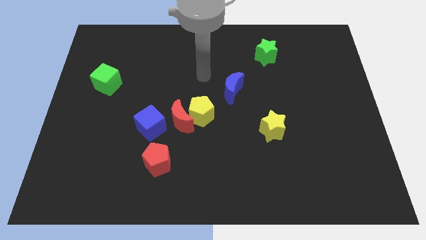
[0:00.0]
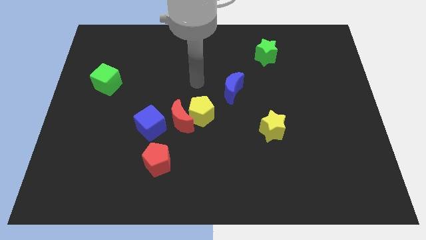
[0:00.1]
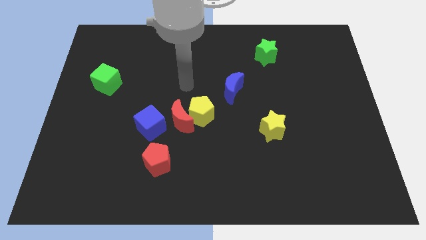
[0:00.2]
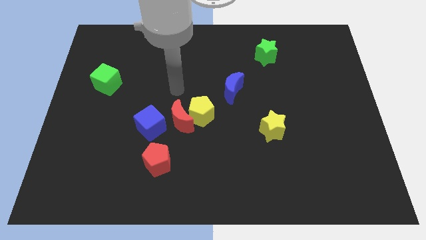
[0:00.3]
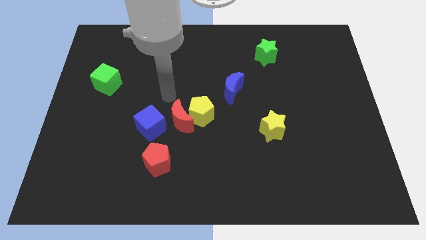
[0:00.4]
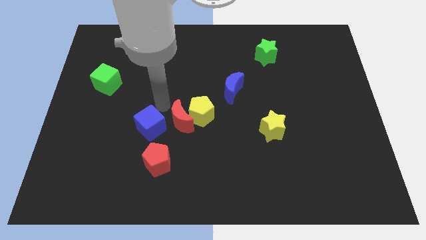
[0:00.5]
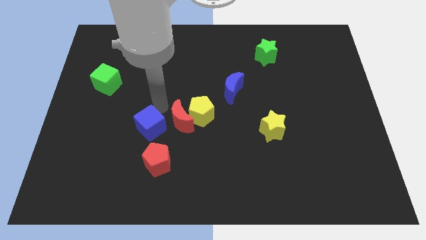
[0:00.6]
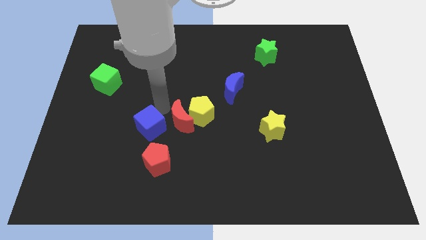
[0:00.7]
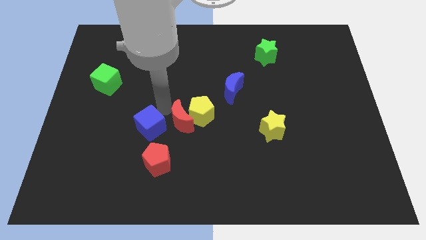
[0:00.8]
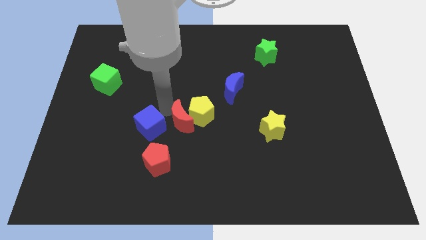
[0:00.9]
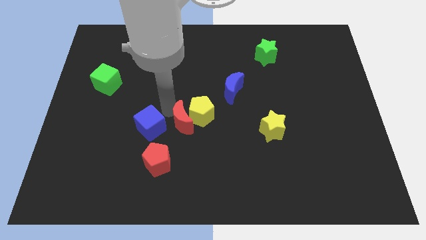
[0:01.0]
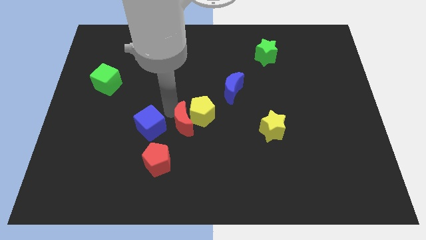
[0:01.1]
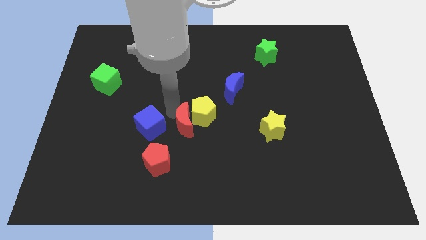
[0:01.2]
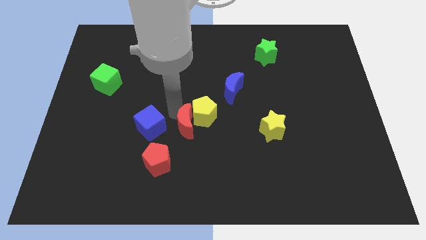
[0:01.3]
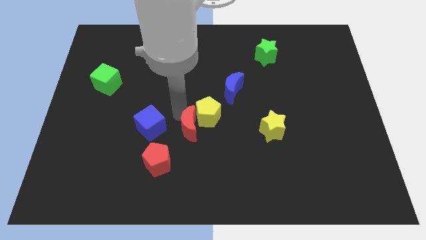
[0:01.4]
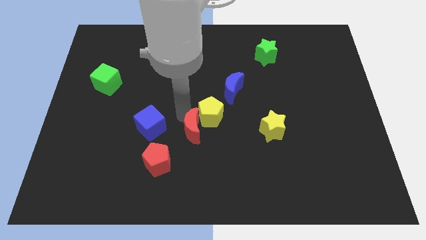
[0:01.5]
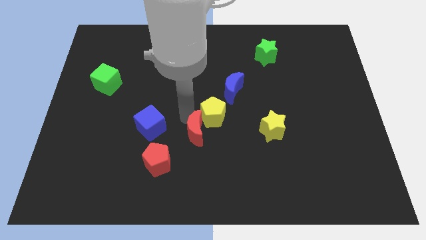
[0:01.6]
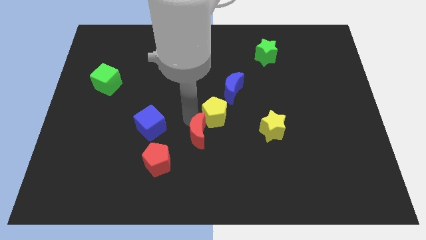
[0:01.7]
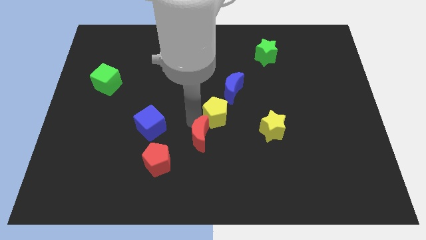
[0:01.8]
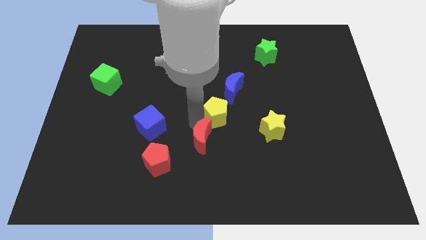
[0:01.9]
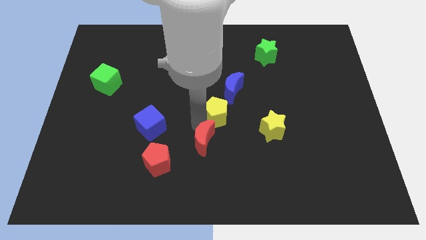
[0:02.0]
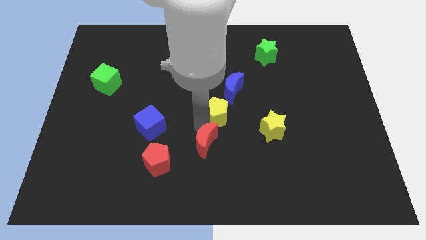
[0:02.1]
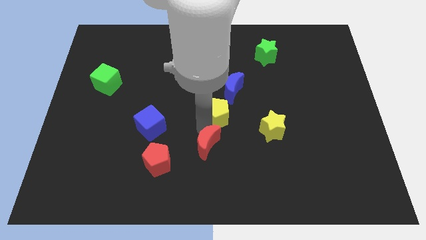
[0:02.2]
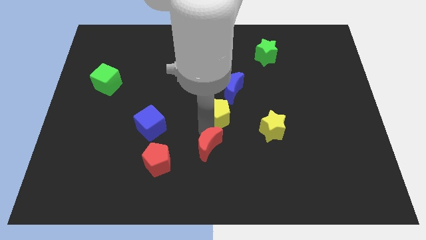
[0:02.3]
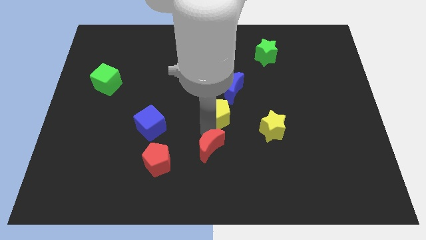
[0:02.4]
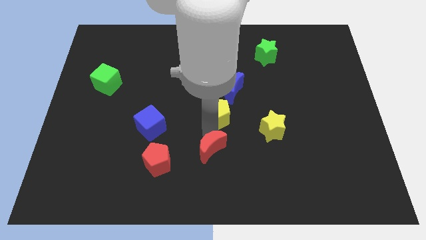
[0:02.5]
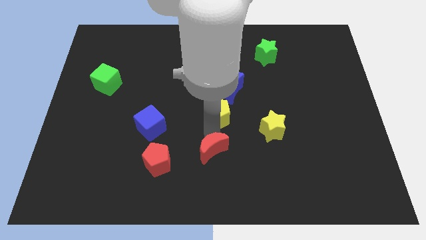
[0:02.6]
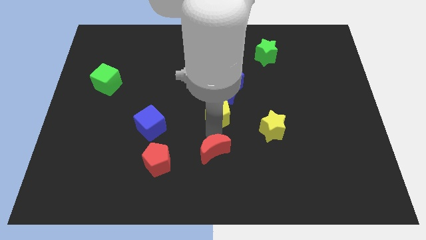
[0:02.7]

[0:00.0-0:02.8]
pull the red moon apart from the yellow pentagon and blue cube

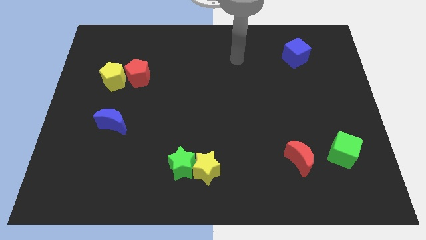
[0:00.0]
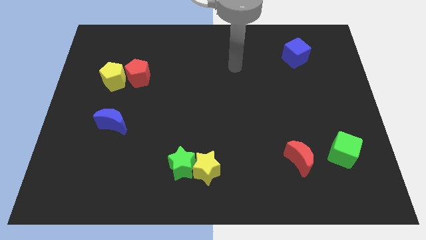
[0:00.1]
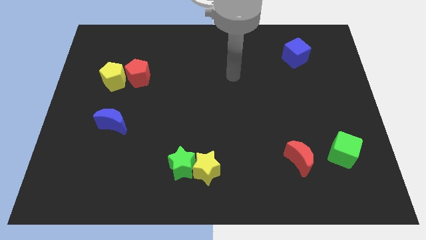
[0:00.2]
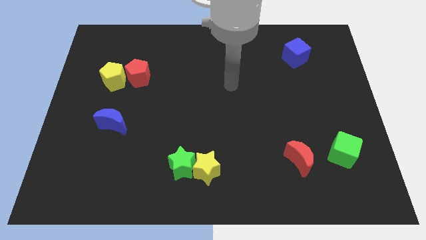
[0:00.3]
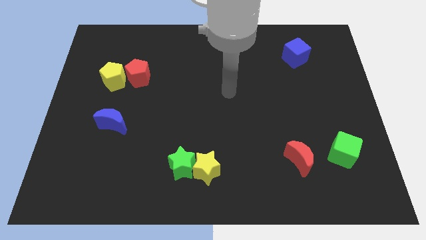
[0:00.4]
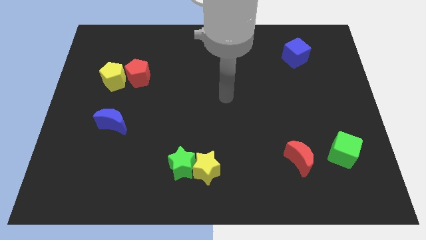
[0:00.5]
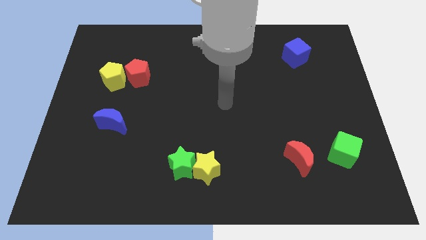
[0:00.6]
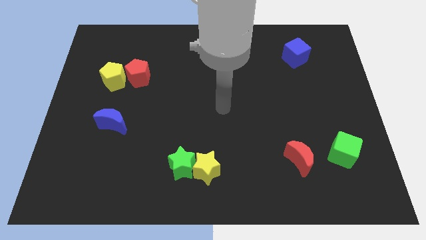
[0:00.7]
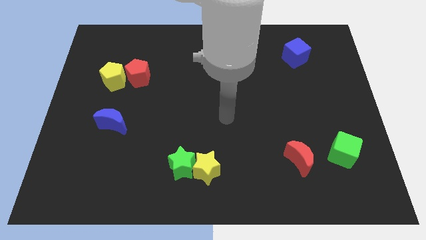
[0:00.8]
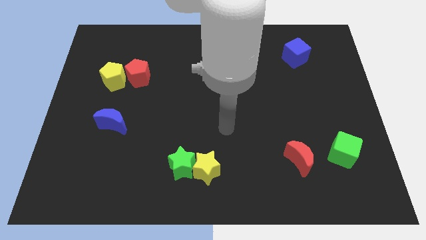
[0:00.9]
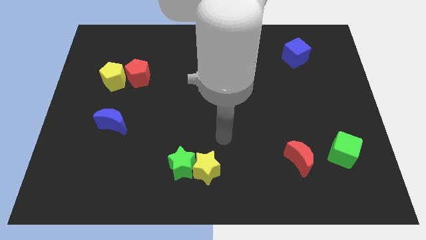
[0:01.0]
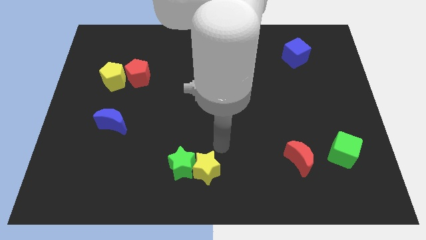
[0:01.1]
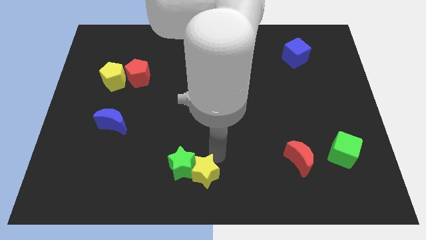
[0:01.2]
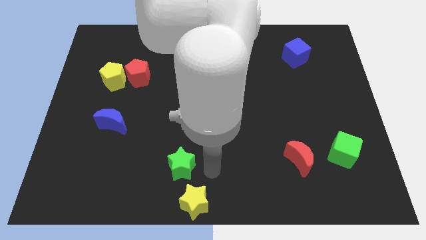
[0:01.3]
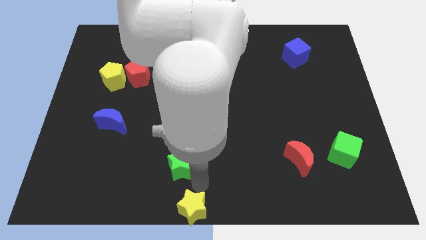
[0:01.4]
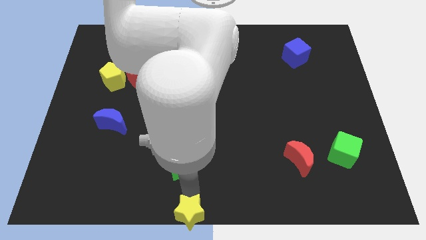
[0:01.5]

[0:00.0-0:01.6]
move the green star away from the yellow star

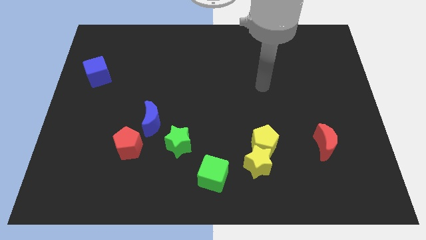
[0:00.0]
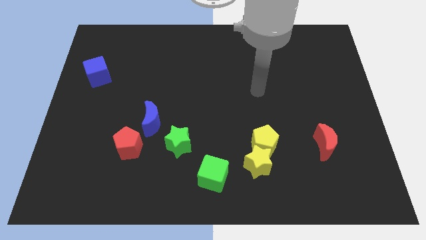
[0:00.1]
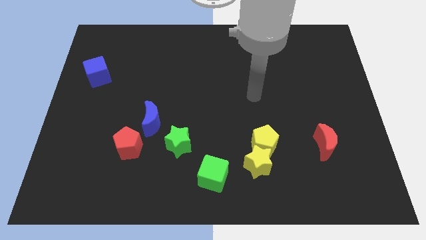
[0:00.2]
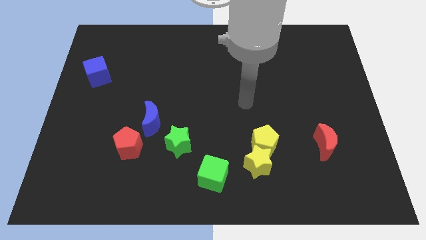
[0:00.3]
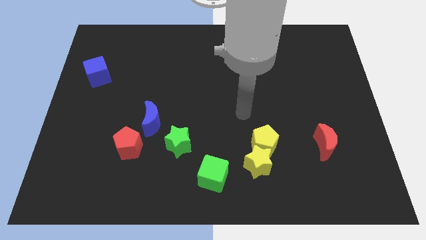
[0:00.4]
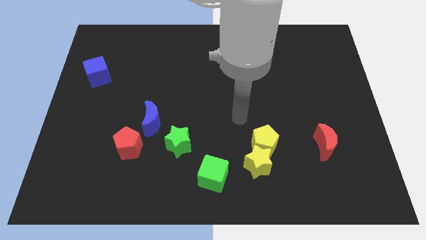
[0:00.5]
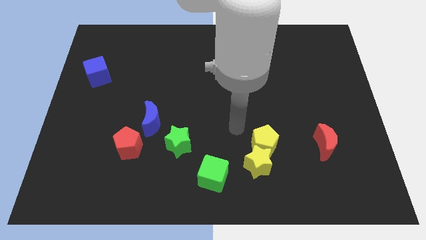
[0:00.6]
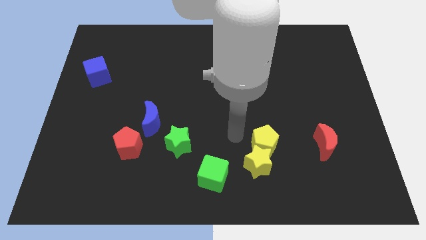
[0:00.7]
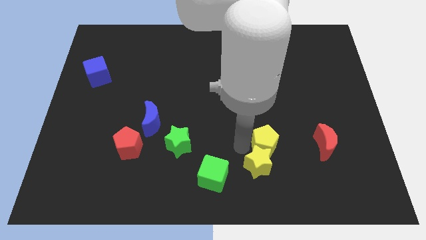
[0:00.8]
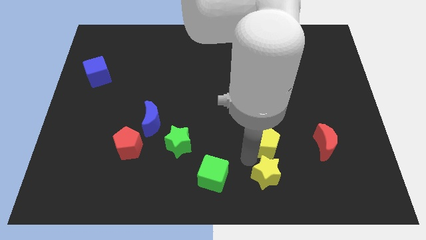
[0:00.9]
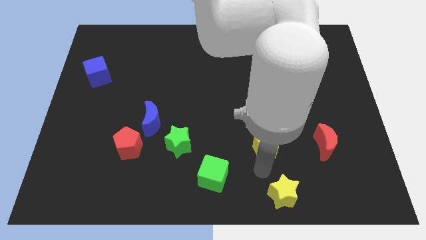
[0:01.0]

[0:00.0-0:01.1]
separate the yellow pentagon from the yellow star

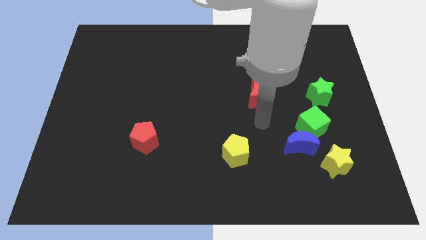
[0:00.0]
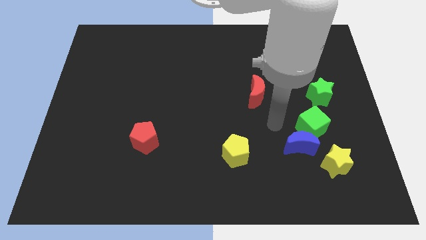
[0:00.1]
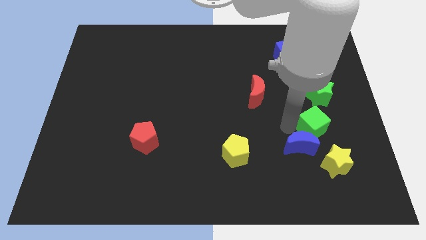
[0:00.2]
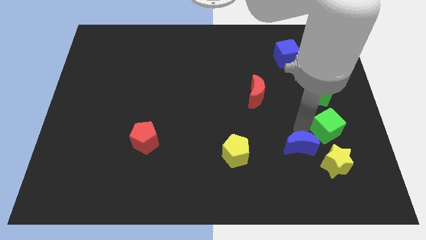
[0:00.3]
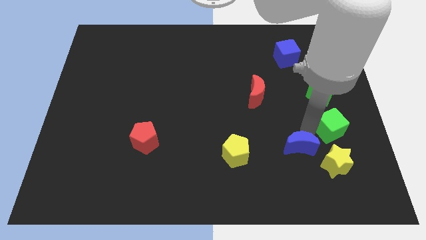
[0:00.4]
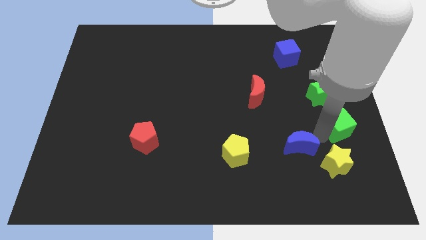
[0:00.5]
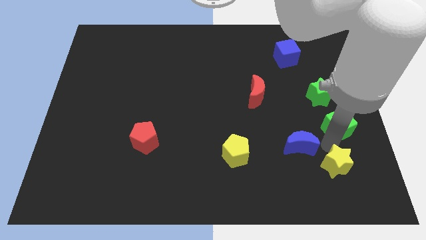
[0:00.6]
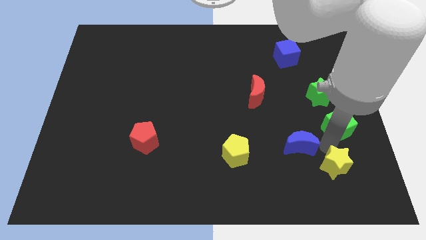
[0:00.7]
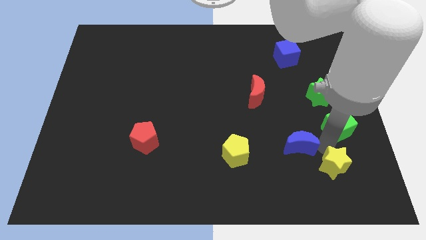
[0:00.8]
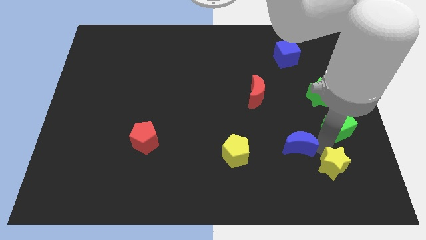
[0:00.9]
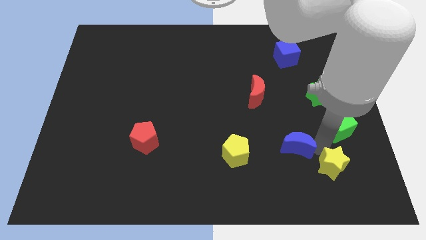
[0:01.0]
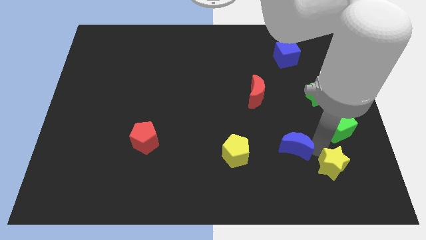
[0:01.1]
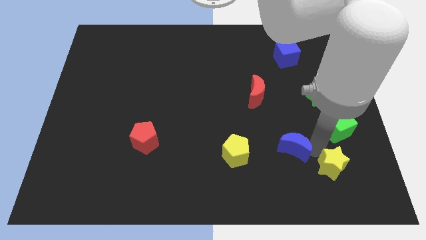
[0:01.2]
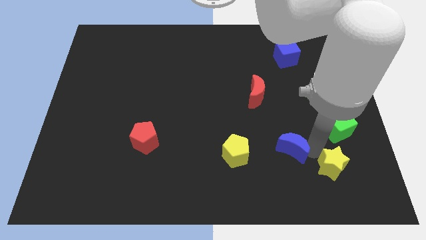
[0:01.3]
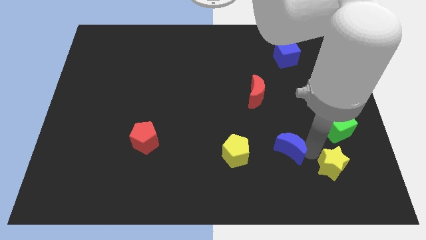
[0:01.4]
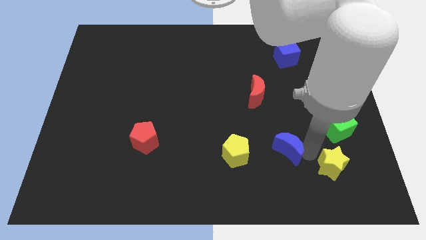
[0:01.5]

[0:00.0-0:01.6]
move the blue moon away from the green cube and yellow star

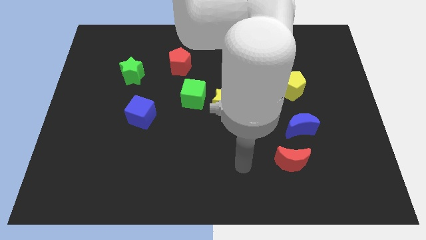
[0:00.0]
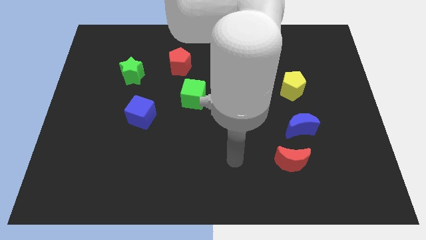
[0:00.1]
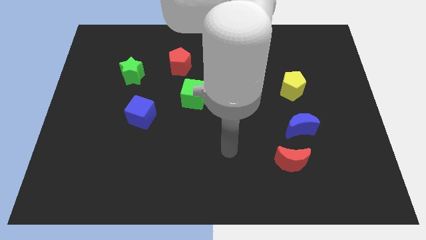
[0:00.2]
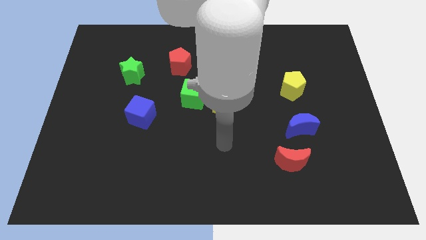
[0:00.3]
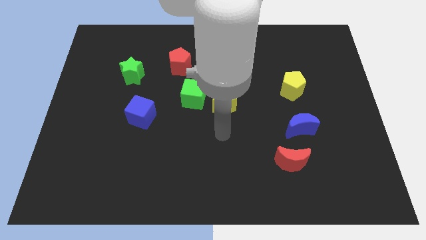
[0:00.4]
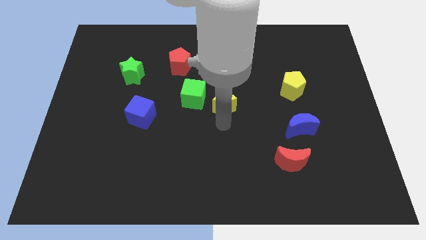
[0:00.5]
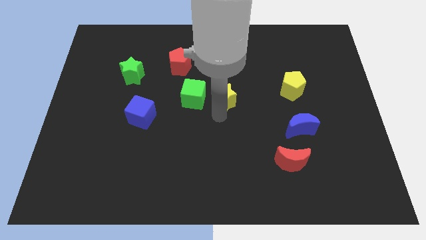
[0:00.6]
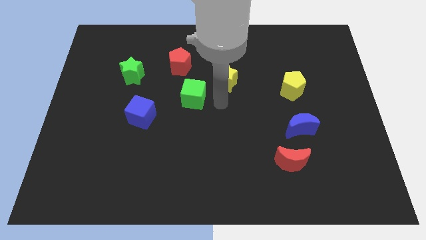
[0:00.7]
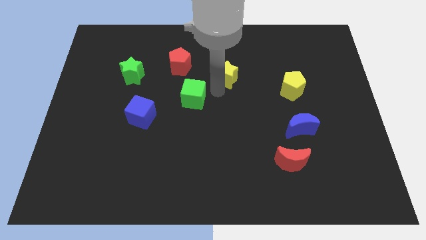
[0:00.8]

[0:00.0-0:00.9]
move the green cube away from the yellow star

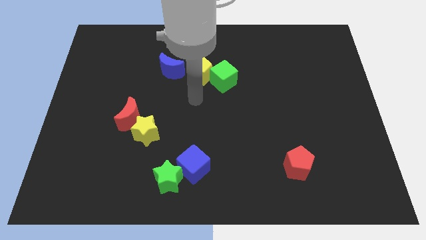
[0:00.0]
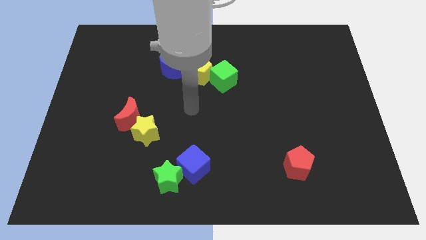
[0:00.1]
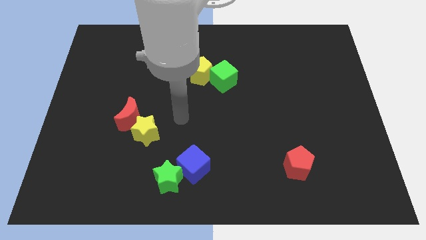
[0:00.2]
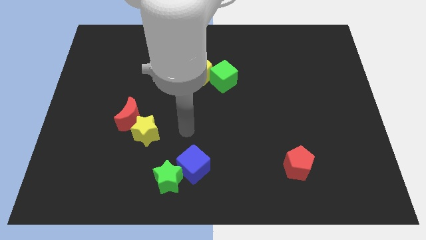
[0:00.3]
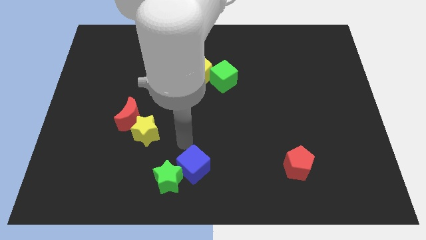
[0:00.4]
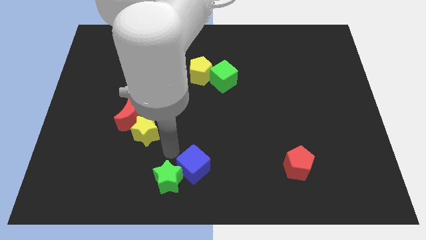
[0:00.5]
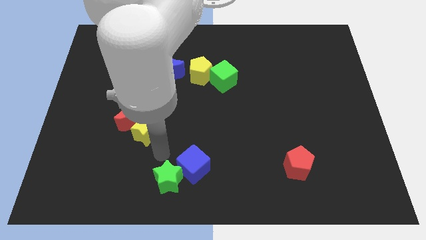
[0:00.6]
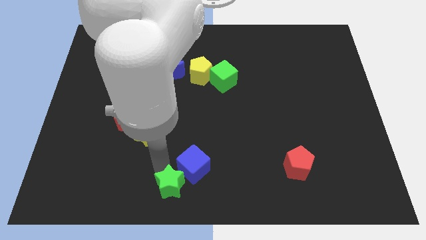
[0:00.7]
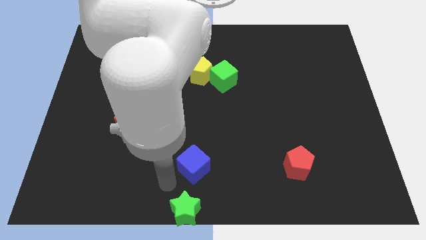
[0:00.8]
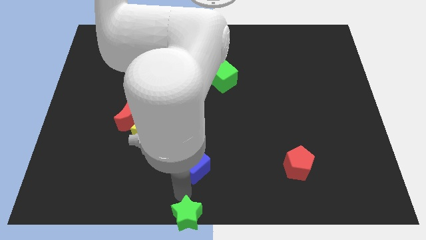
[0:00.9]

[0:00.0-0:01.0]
separate the blue cube from the green star

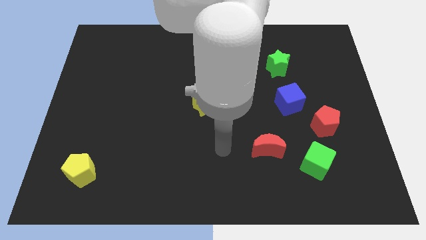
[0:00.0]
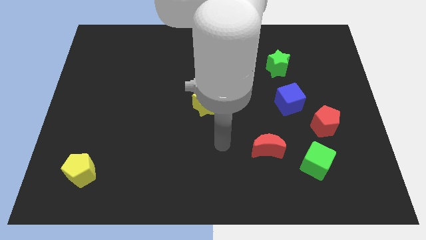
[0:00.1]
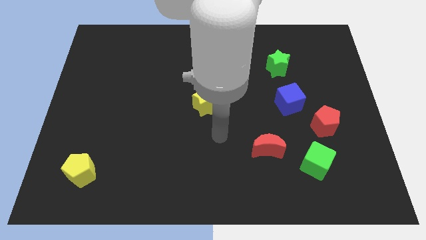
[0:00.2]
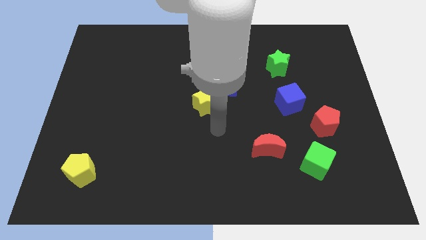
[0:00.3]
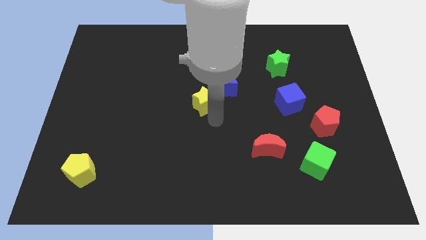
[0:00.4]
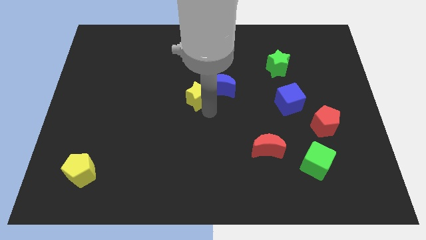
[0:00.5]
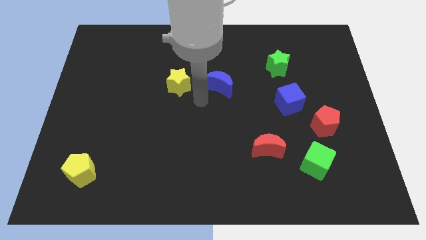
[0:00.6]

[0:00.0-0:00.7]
separate the blue moon from the yellow star
